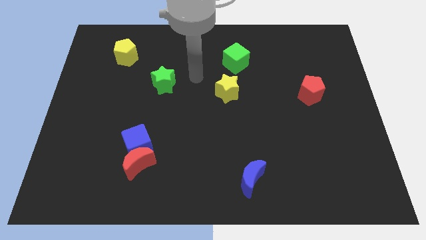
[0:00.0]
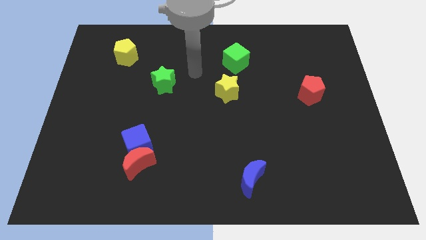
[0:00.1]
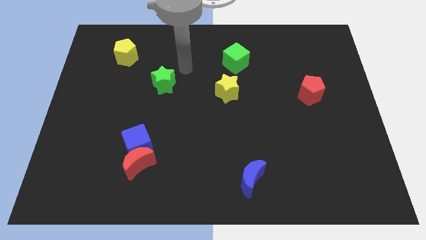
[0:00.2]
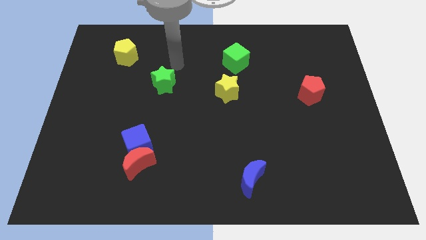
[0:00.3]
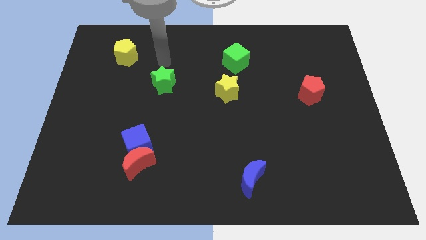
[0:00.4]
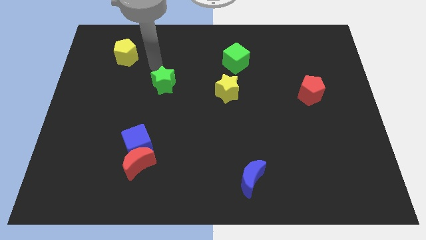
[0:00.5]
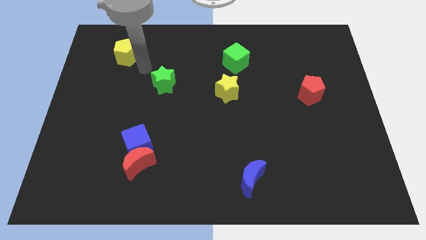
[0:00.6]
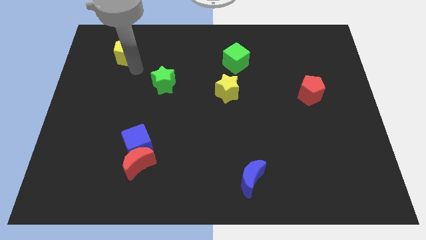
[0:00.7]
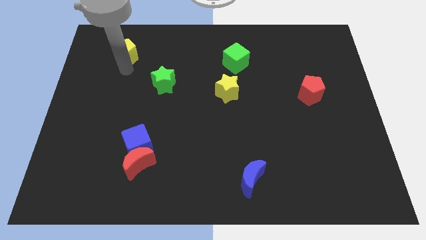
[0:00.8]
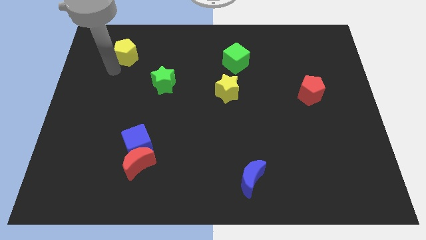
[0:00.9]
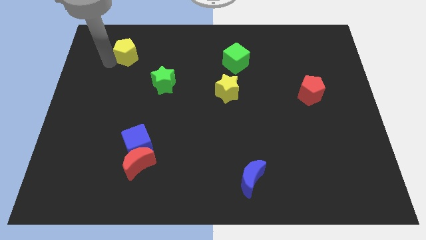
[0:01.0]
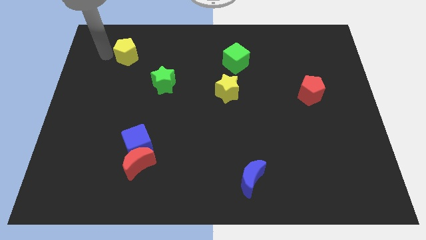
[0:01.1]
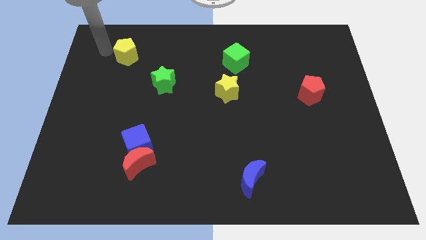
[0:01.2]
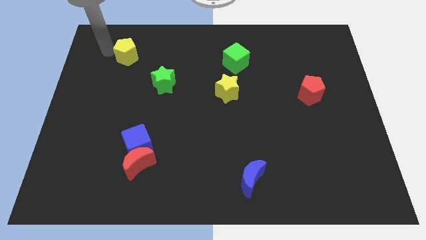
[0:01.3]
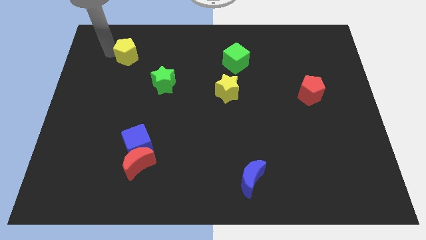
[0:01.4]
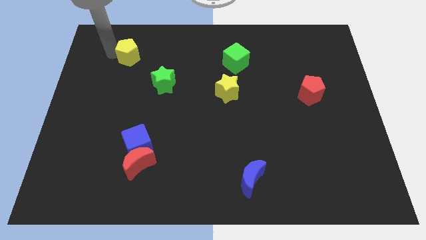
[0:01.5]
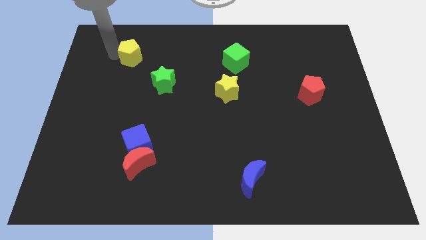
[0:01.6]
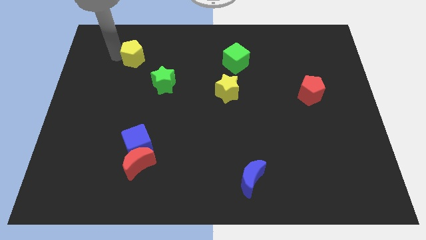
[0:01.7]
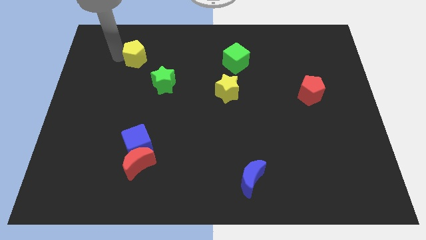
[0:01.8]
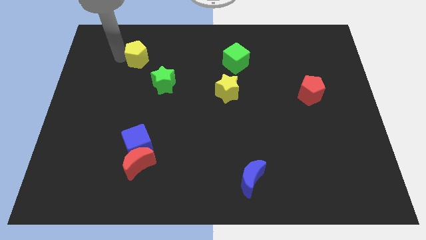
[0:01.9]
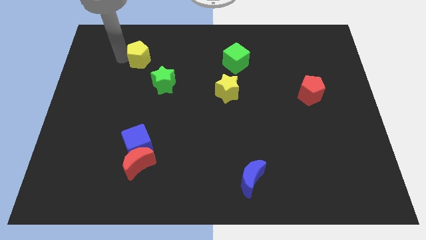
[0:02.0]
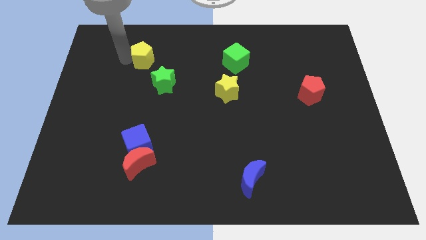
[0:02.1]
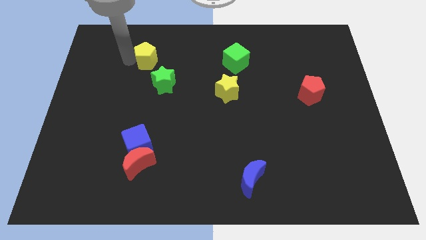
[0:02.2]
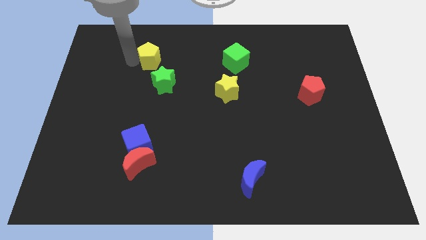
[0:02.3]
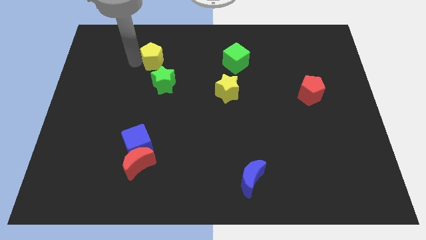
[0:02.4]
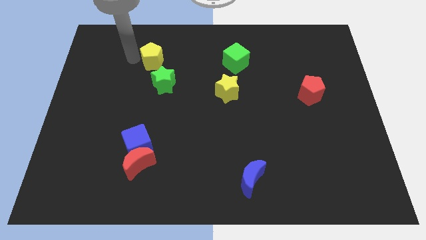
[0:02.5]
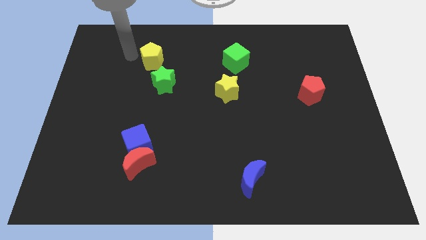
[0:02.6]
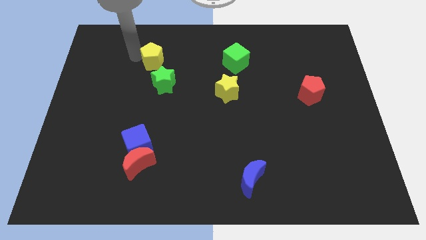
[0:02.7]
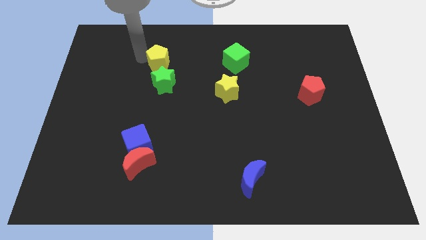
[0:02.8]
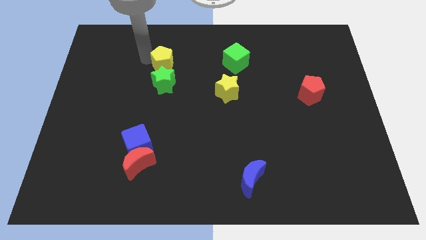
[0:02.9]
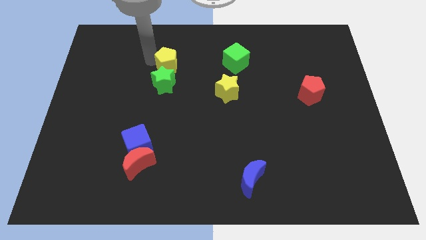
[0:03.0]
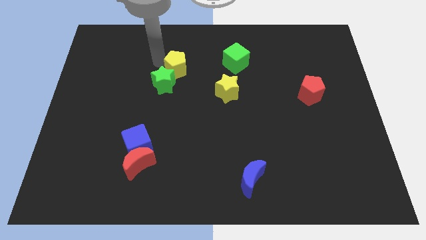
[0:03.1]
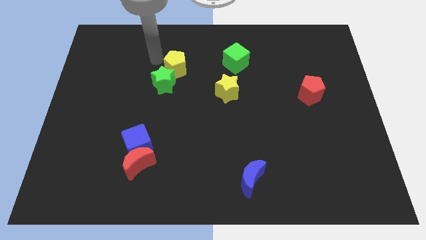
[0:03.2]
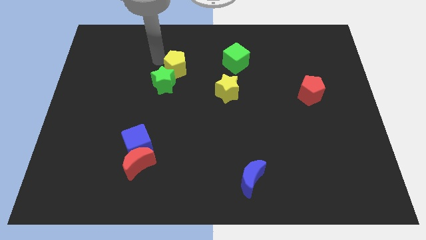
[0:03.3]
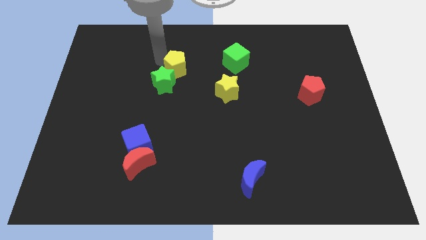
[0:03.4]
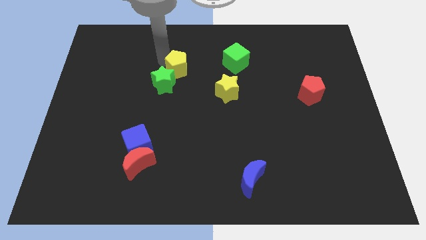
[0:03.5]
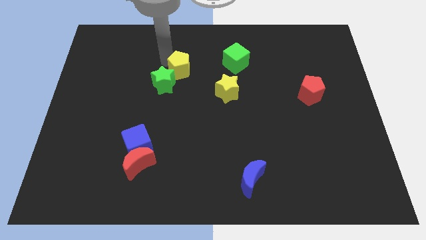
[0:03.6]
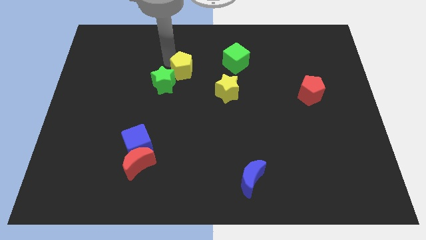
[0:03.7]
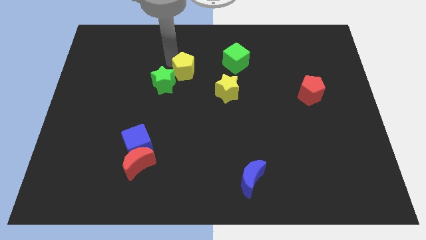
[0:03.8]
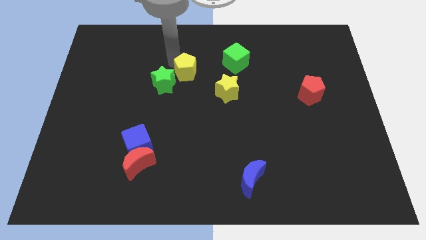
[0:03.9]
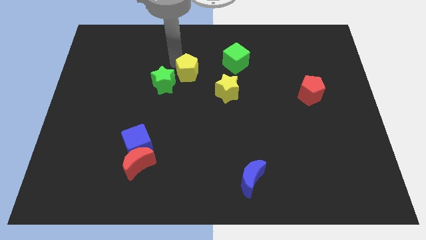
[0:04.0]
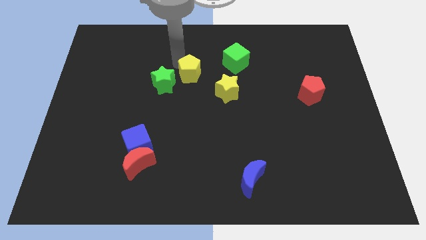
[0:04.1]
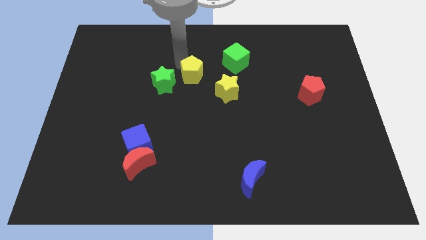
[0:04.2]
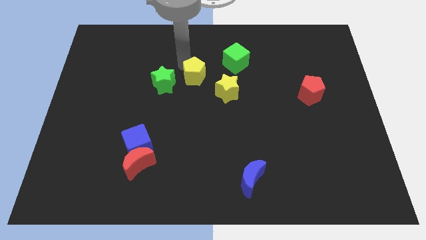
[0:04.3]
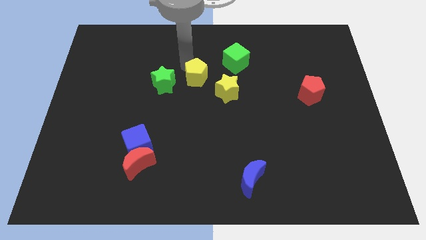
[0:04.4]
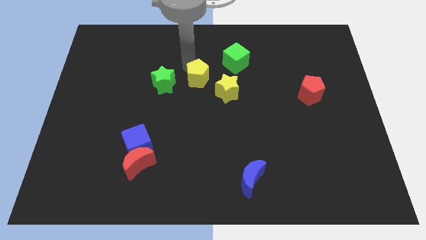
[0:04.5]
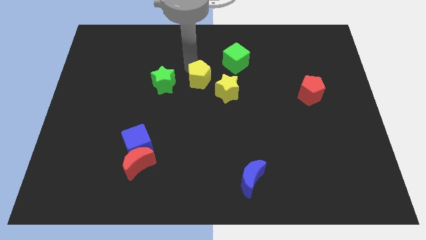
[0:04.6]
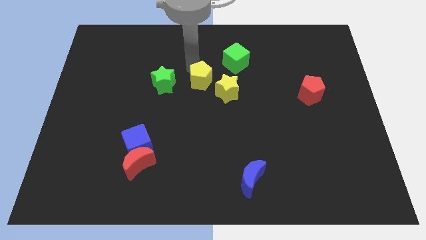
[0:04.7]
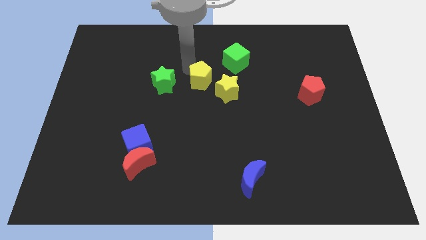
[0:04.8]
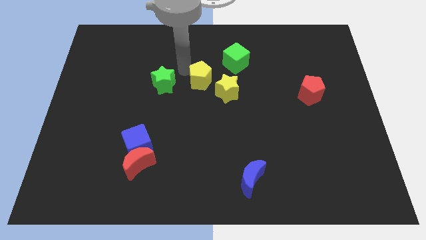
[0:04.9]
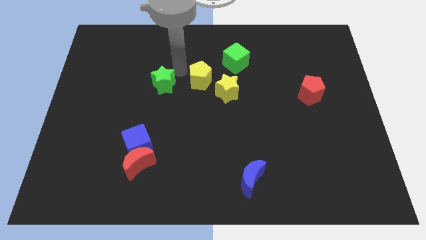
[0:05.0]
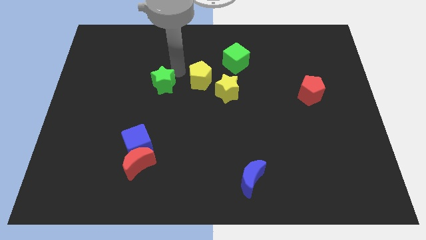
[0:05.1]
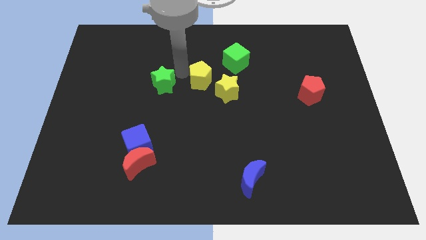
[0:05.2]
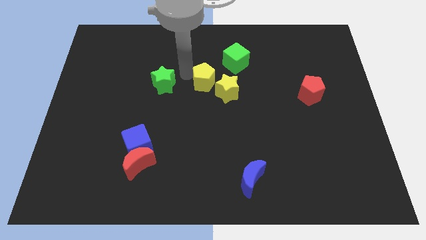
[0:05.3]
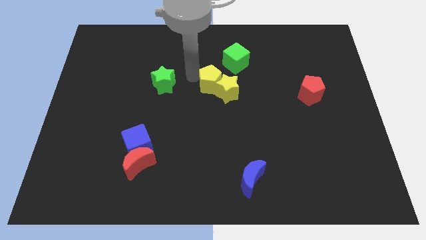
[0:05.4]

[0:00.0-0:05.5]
move the yellow pentagon close to the yellow star

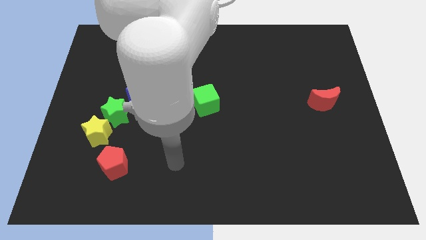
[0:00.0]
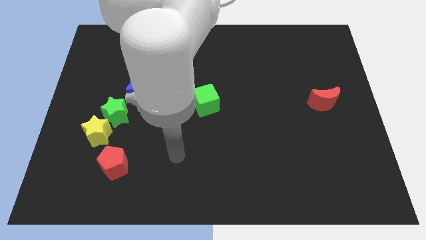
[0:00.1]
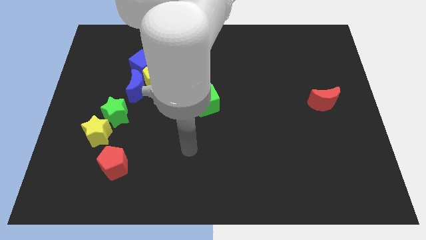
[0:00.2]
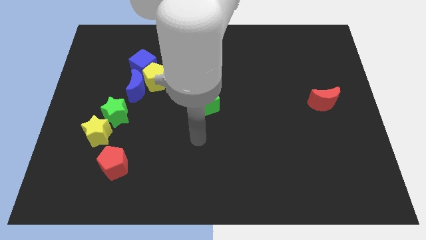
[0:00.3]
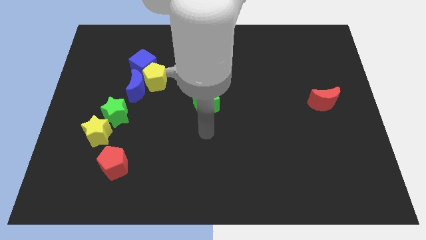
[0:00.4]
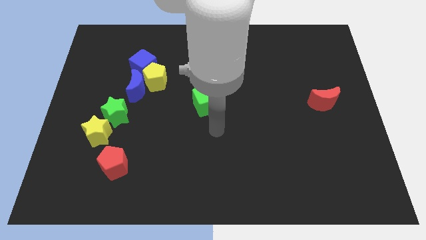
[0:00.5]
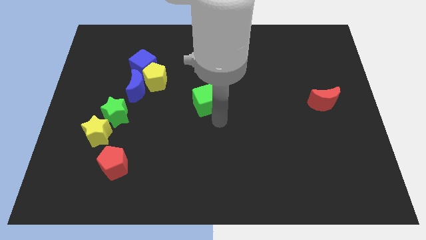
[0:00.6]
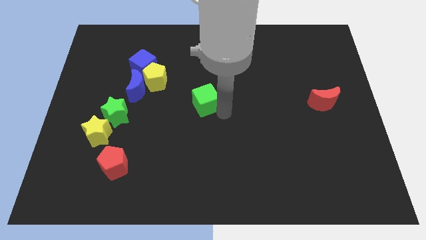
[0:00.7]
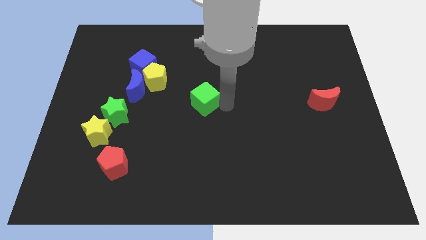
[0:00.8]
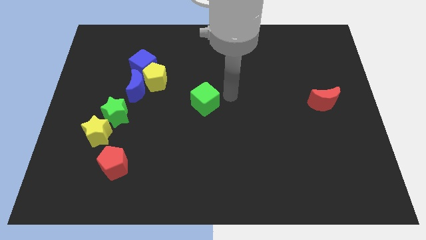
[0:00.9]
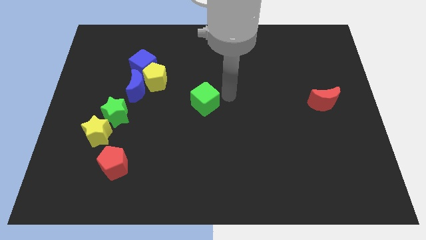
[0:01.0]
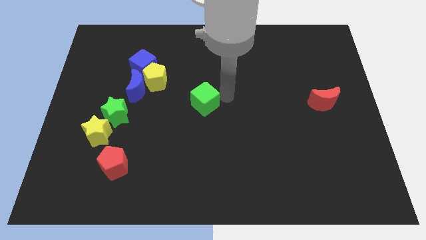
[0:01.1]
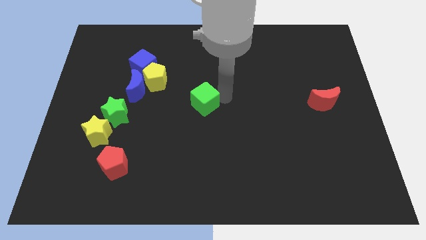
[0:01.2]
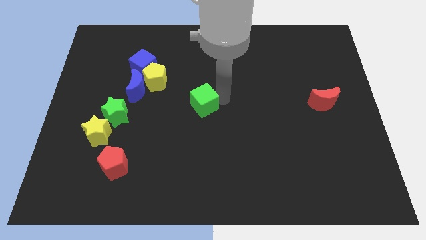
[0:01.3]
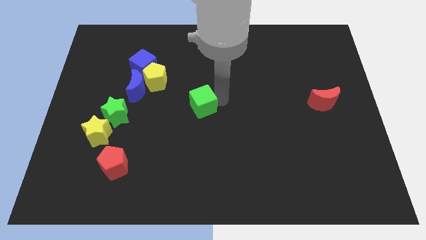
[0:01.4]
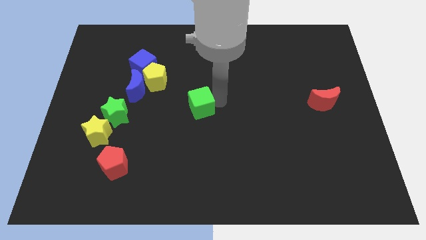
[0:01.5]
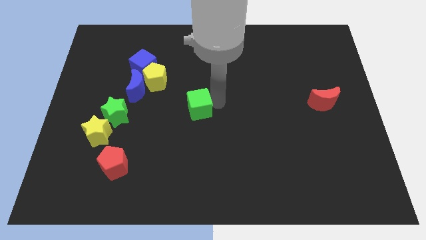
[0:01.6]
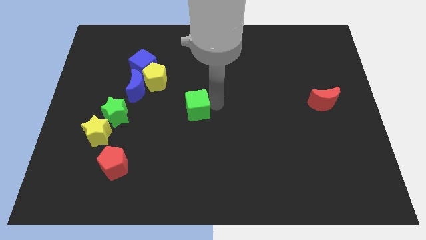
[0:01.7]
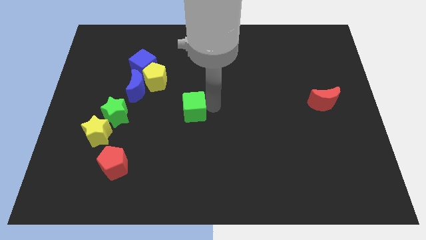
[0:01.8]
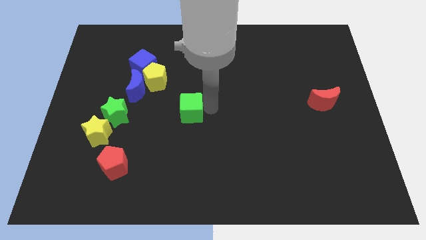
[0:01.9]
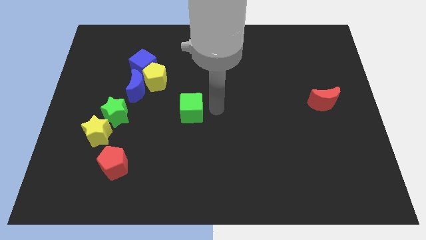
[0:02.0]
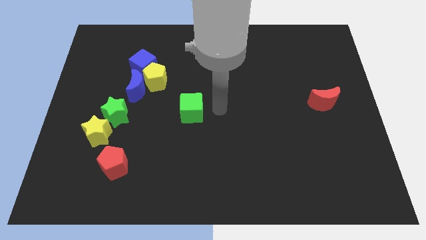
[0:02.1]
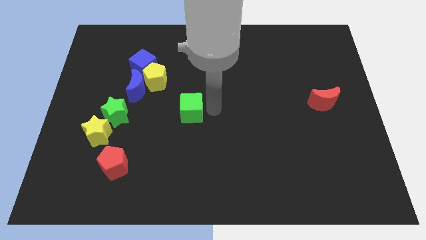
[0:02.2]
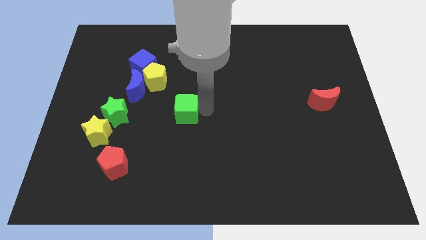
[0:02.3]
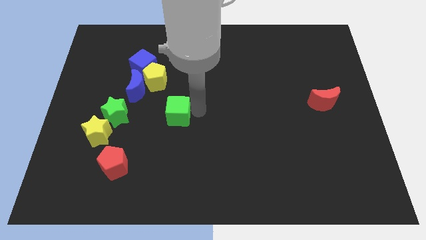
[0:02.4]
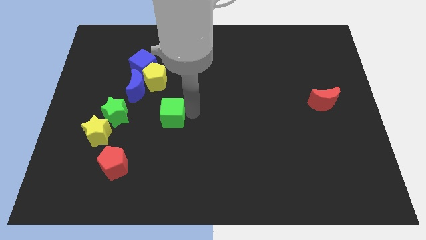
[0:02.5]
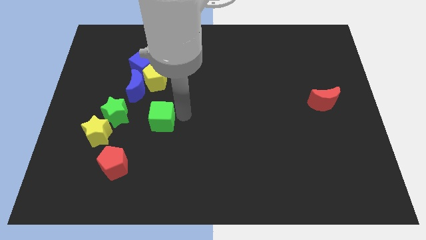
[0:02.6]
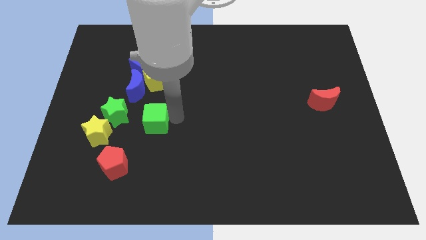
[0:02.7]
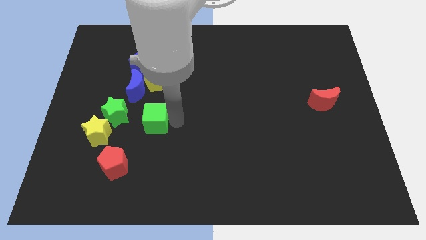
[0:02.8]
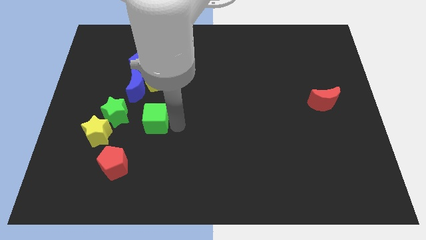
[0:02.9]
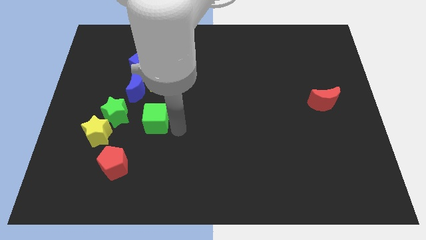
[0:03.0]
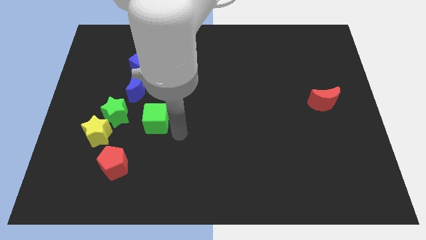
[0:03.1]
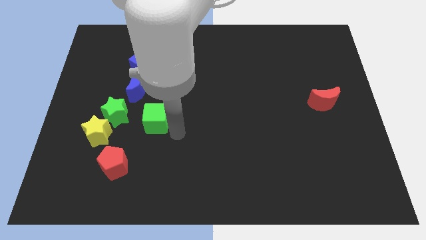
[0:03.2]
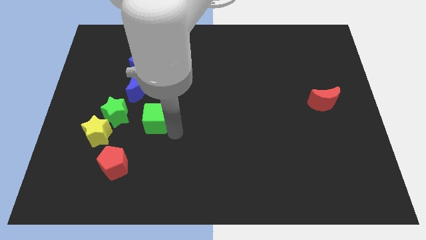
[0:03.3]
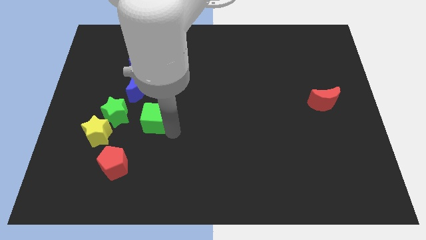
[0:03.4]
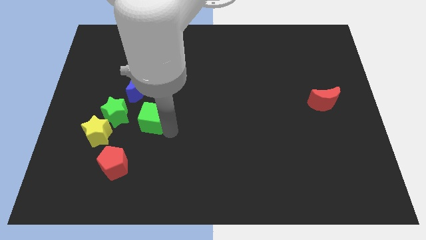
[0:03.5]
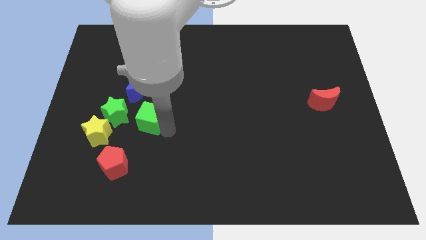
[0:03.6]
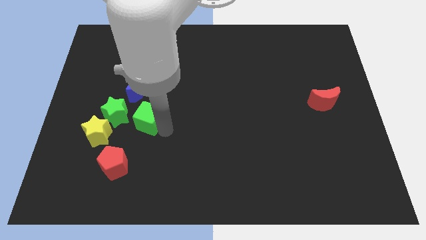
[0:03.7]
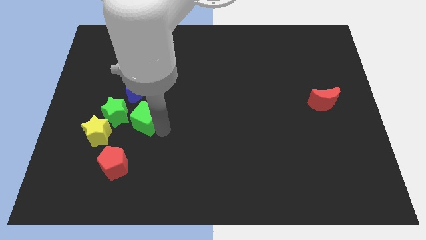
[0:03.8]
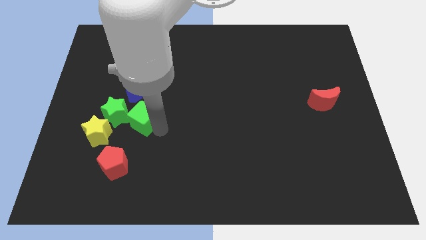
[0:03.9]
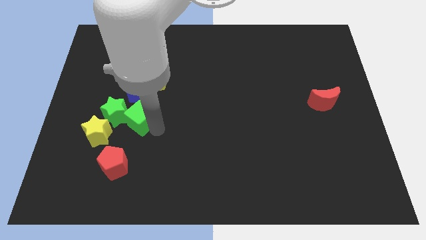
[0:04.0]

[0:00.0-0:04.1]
slide the green cube to the green star
